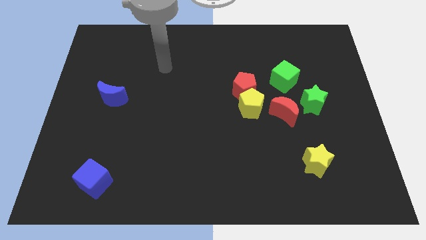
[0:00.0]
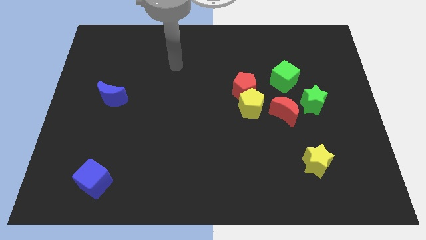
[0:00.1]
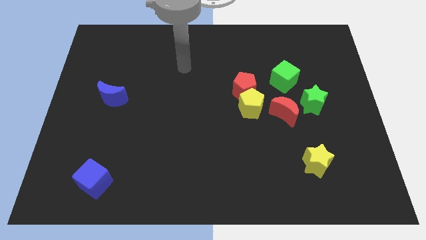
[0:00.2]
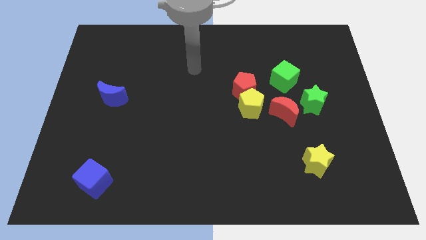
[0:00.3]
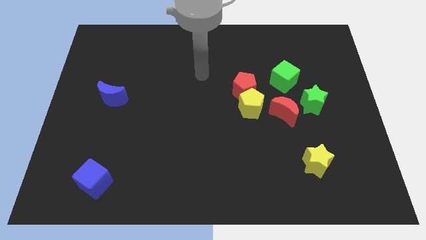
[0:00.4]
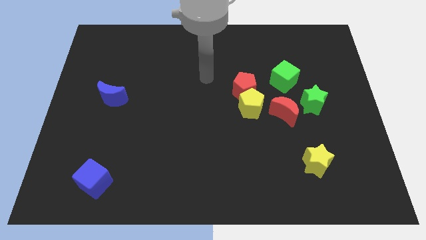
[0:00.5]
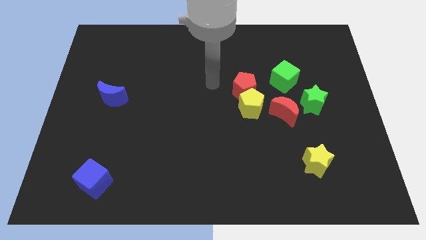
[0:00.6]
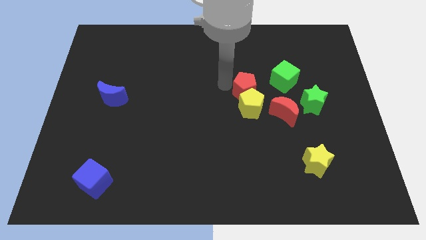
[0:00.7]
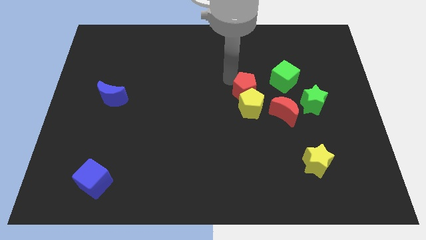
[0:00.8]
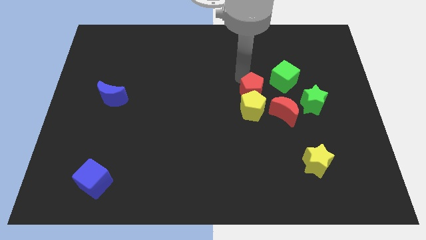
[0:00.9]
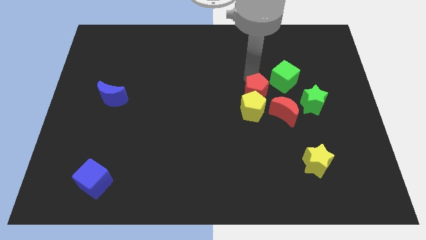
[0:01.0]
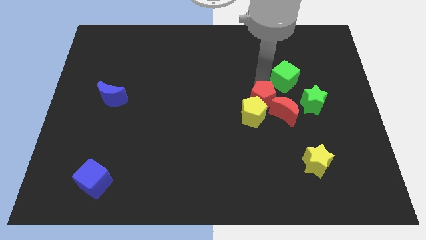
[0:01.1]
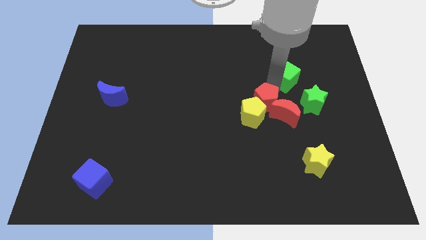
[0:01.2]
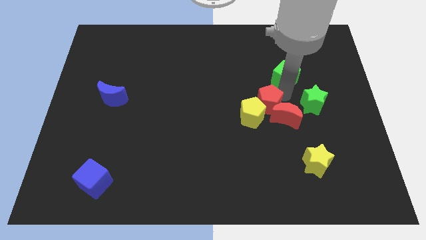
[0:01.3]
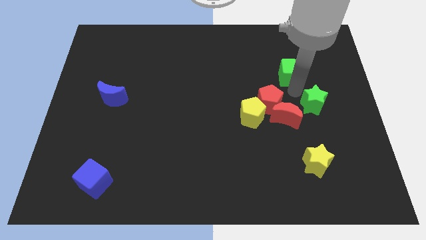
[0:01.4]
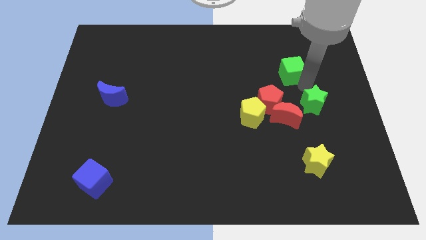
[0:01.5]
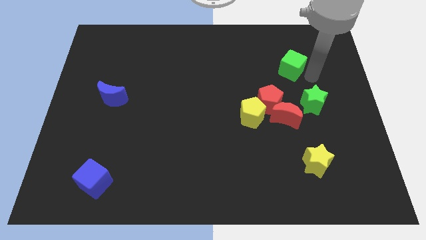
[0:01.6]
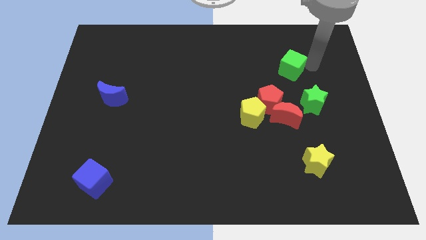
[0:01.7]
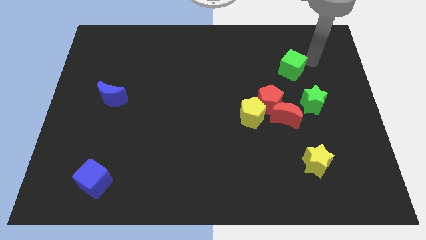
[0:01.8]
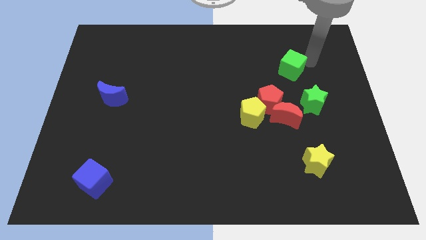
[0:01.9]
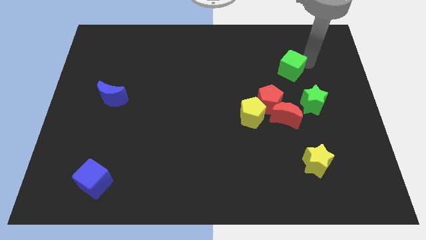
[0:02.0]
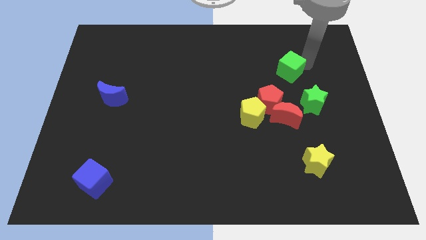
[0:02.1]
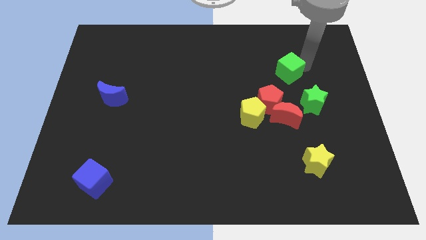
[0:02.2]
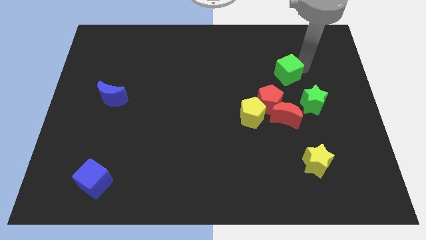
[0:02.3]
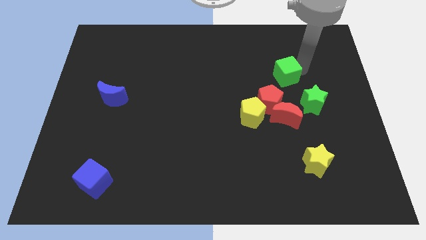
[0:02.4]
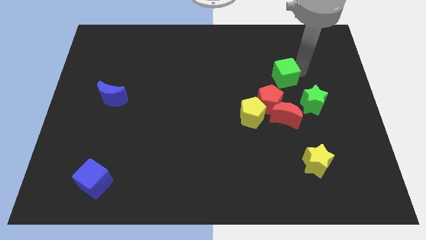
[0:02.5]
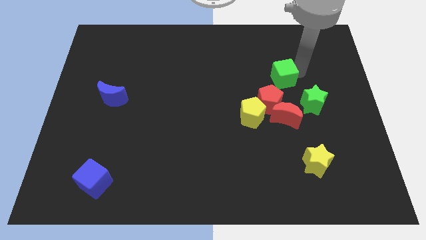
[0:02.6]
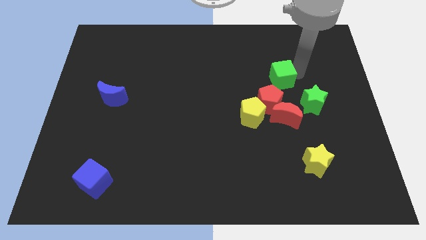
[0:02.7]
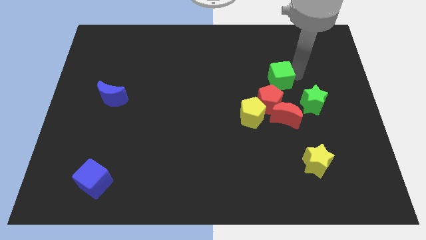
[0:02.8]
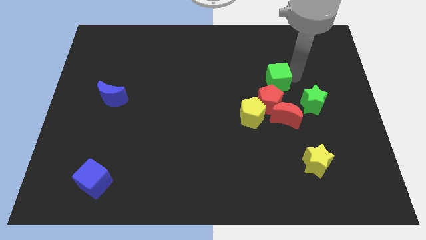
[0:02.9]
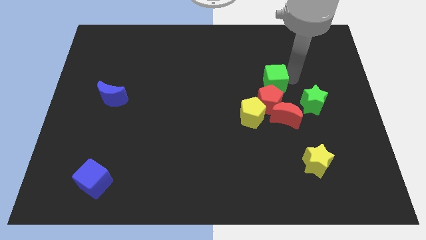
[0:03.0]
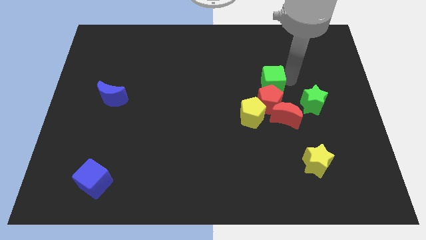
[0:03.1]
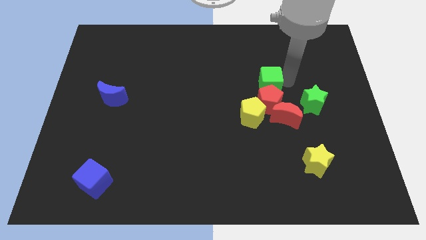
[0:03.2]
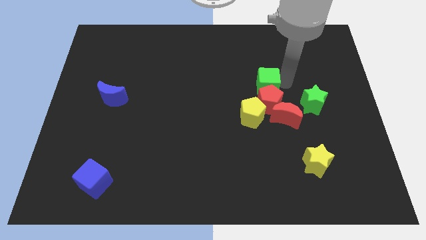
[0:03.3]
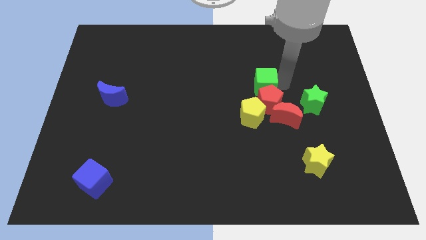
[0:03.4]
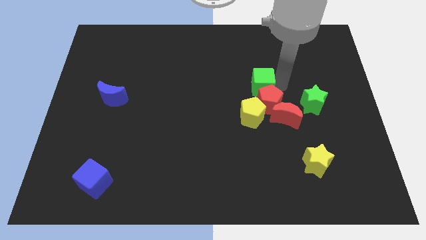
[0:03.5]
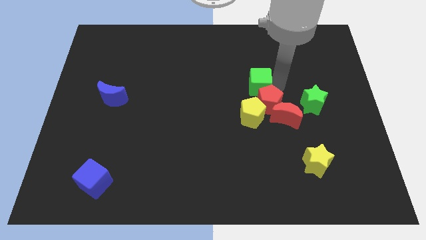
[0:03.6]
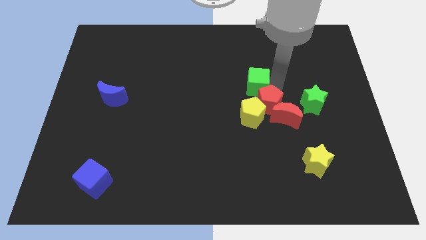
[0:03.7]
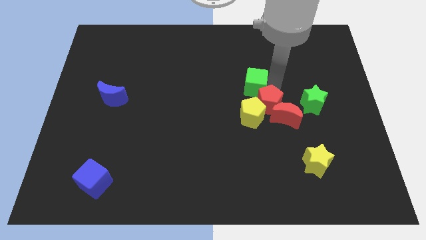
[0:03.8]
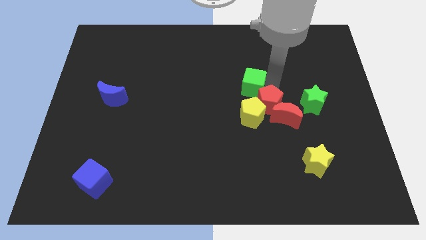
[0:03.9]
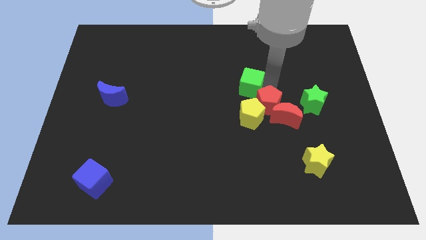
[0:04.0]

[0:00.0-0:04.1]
push the green cube a little bit down and to the left diagonally

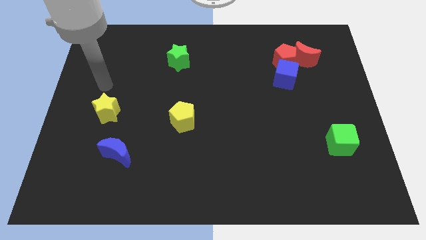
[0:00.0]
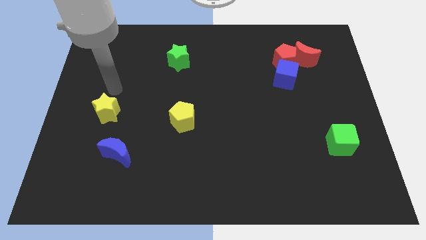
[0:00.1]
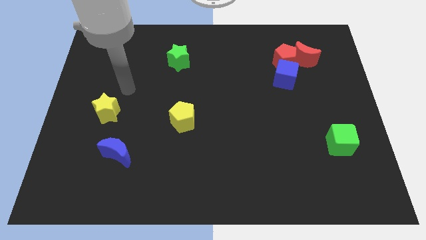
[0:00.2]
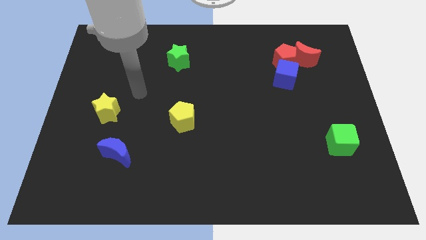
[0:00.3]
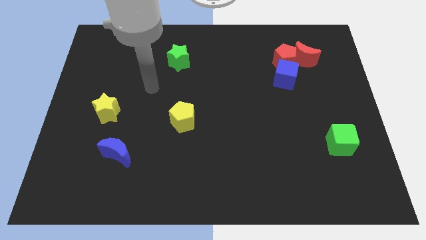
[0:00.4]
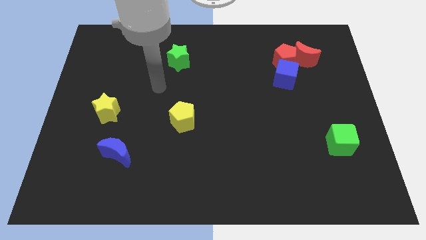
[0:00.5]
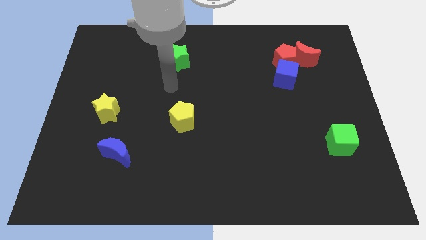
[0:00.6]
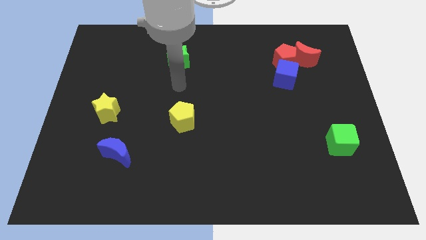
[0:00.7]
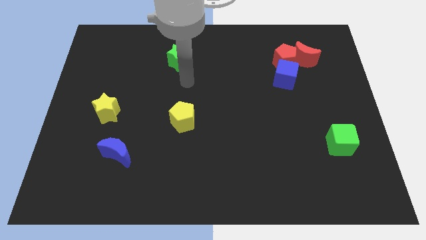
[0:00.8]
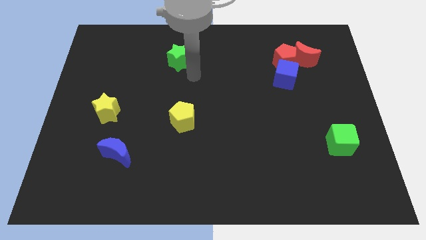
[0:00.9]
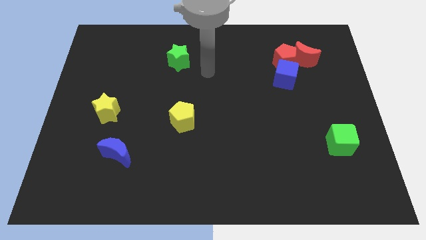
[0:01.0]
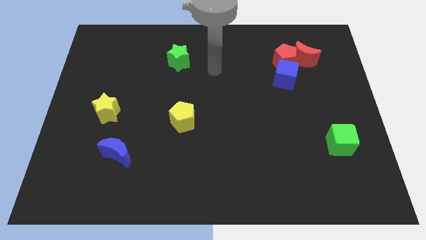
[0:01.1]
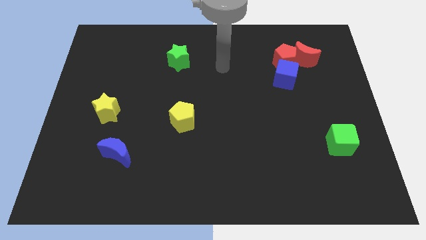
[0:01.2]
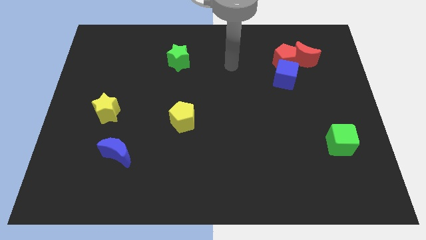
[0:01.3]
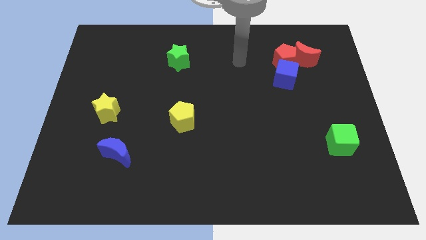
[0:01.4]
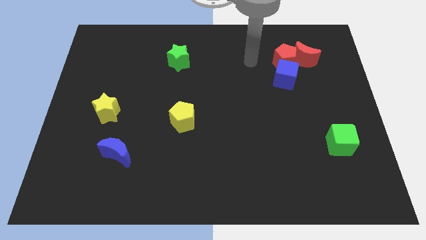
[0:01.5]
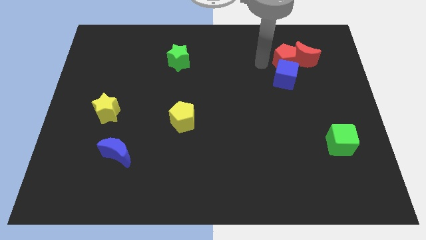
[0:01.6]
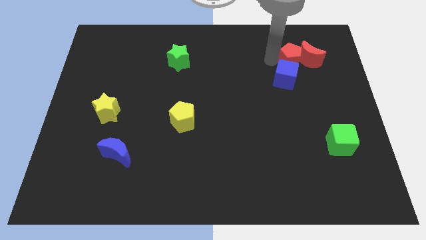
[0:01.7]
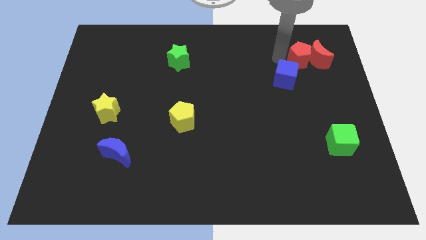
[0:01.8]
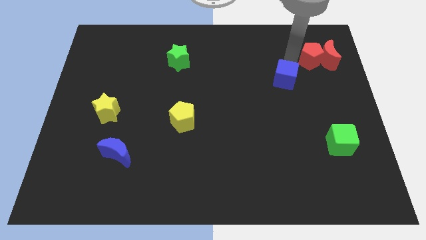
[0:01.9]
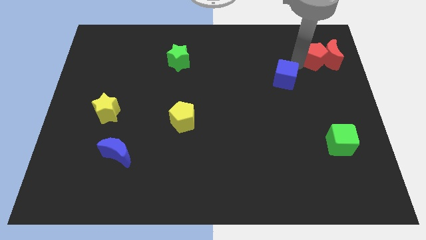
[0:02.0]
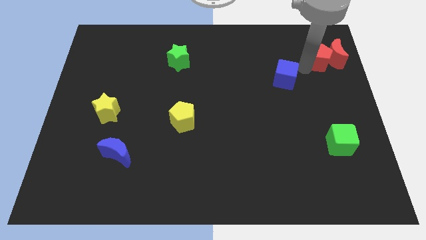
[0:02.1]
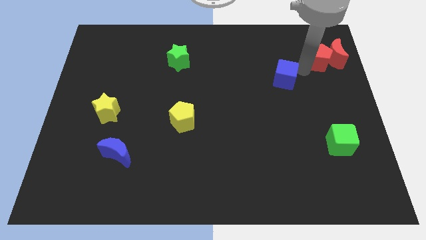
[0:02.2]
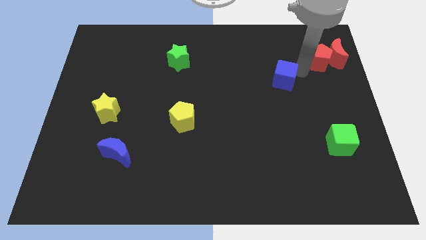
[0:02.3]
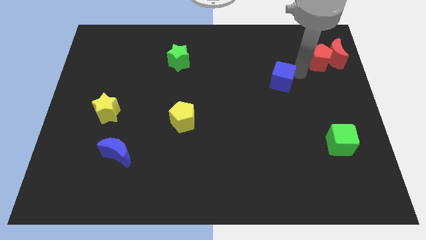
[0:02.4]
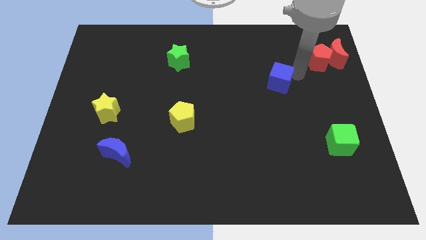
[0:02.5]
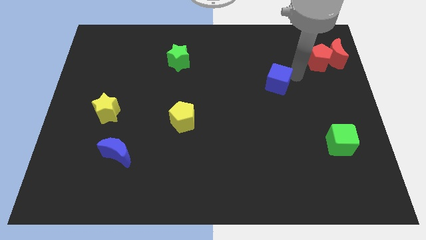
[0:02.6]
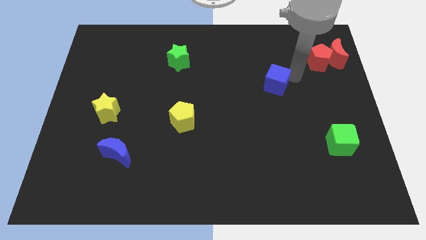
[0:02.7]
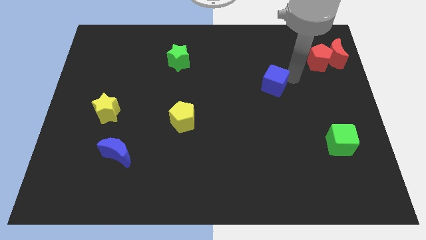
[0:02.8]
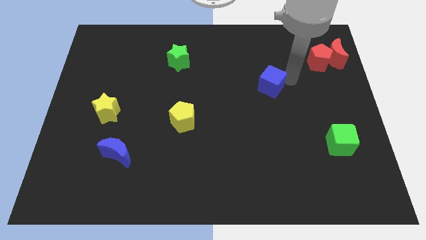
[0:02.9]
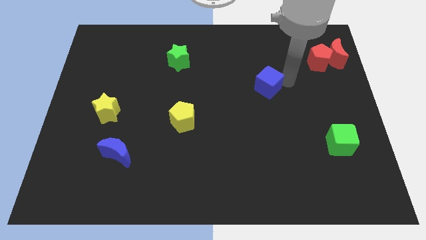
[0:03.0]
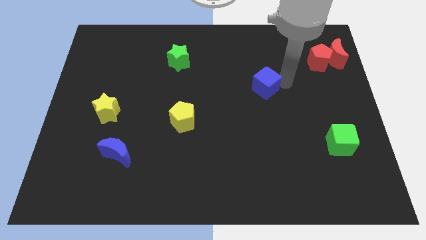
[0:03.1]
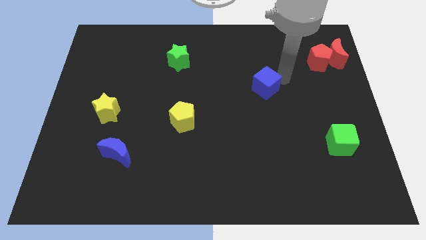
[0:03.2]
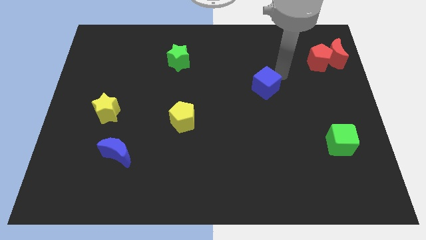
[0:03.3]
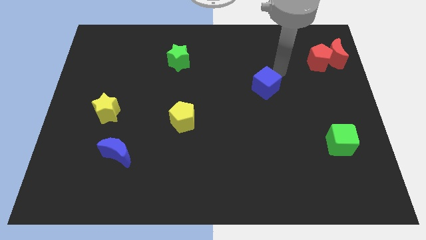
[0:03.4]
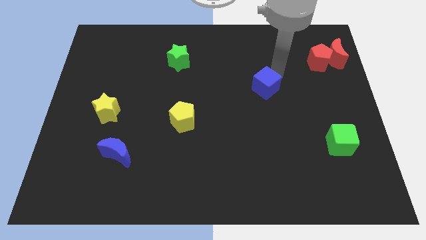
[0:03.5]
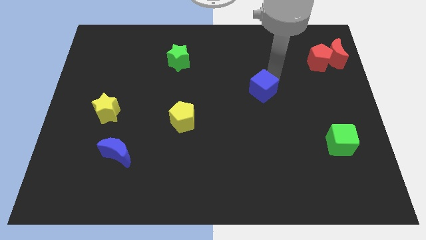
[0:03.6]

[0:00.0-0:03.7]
move the blue cube a bit downwards and to the left diagonally

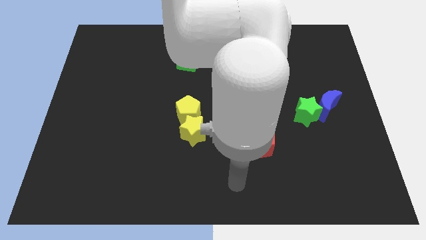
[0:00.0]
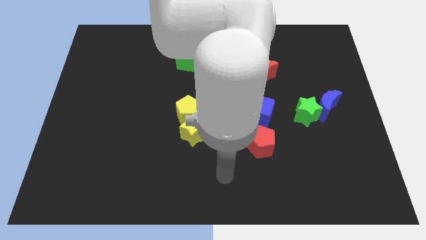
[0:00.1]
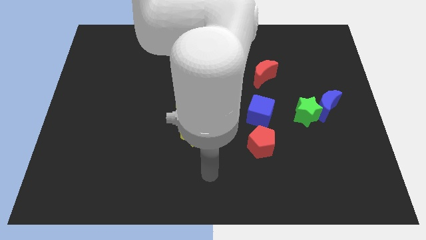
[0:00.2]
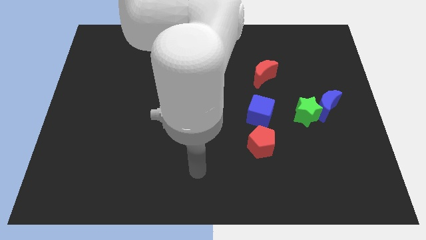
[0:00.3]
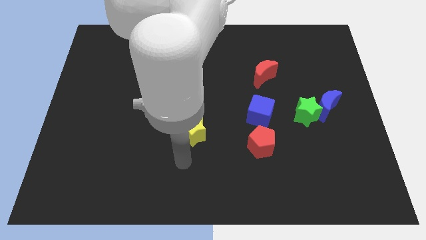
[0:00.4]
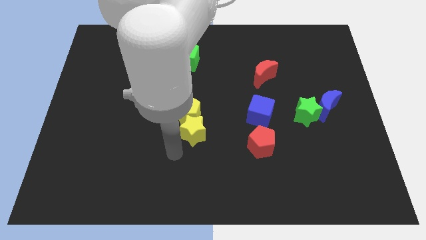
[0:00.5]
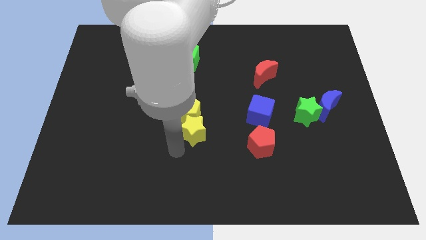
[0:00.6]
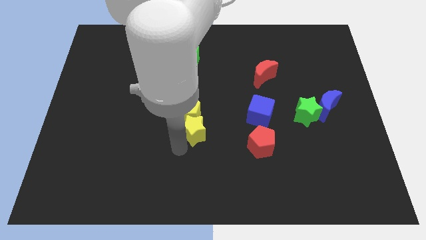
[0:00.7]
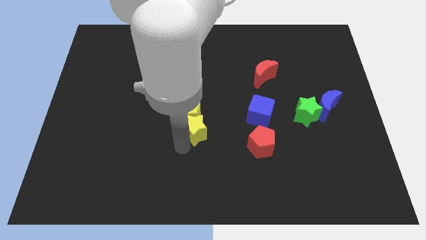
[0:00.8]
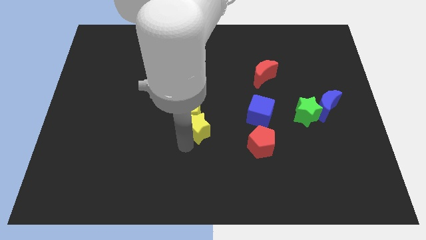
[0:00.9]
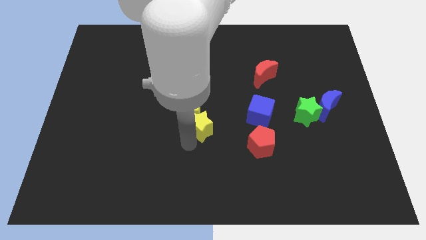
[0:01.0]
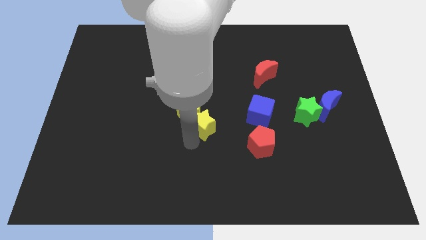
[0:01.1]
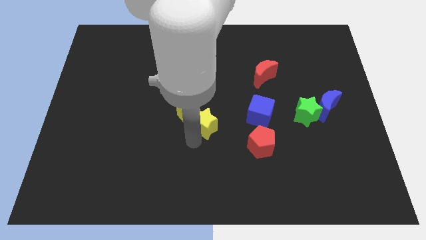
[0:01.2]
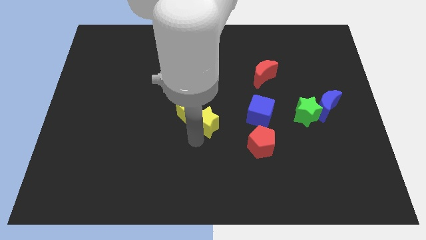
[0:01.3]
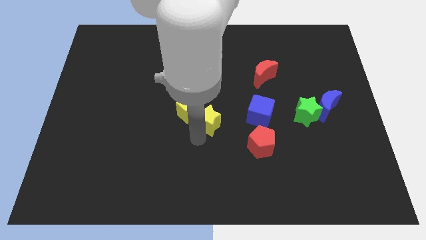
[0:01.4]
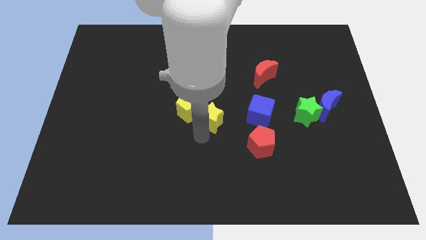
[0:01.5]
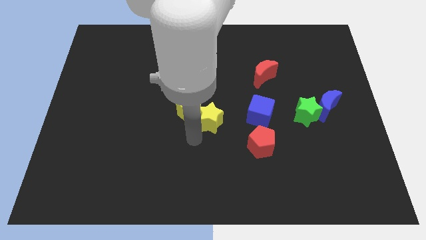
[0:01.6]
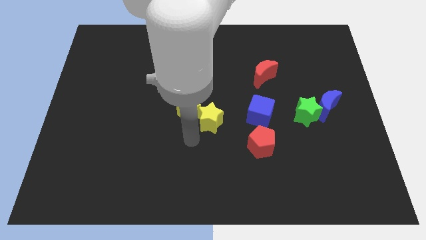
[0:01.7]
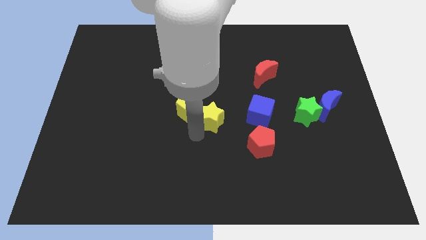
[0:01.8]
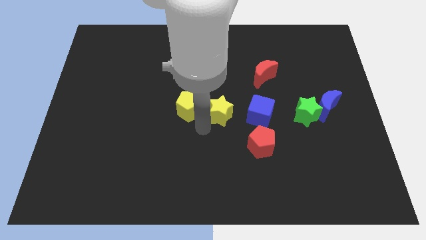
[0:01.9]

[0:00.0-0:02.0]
slightly push the yellow star up and to the right
